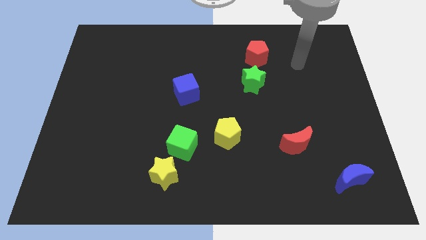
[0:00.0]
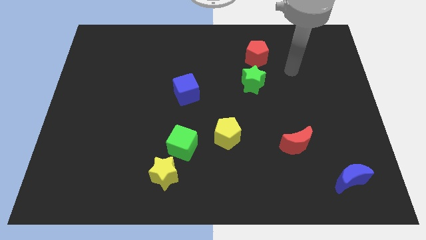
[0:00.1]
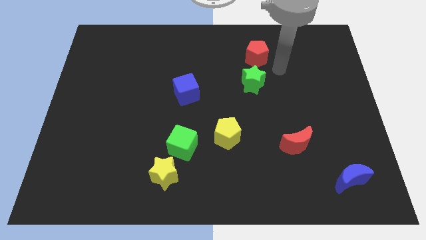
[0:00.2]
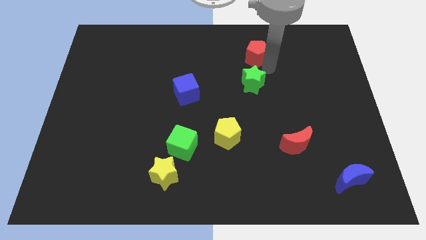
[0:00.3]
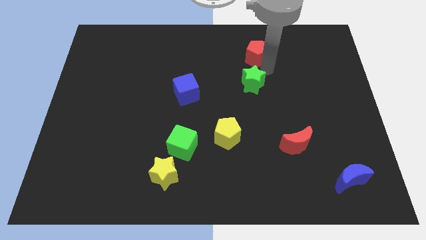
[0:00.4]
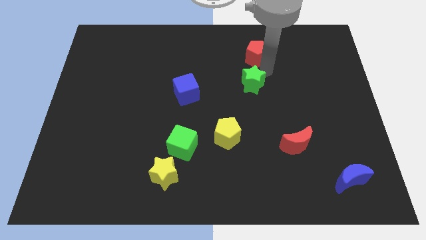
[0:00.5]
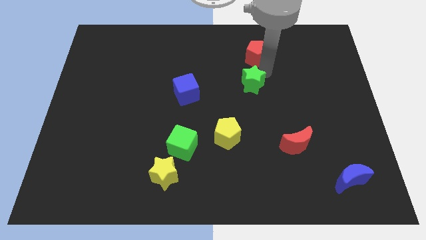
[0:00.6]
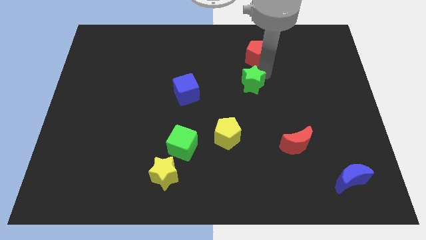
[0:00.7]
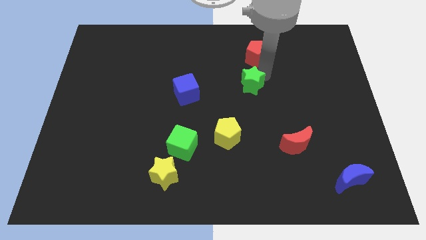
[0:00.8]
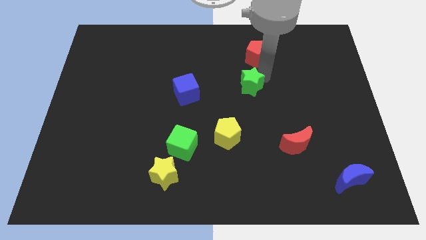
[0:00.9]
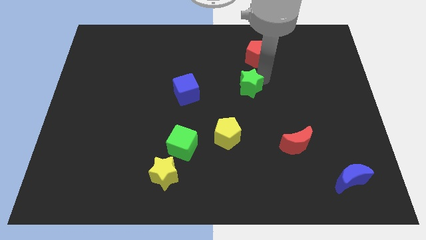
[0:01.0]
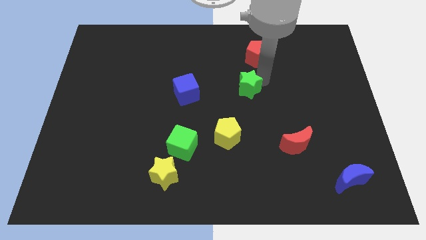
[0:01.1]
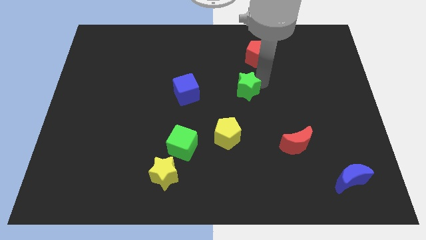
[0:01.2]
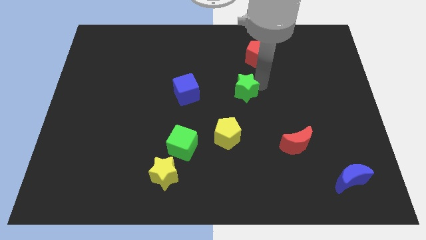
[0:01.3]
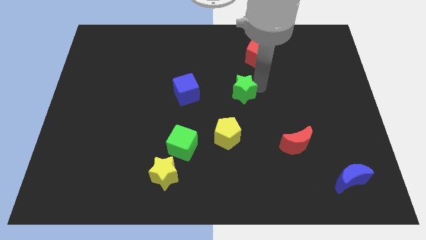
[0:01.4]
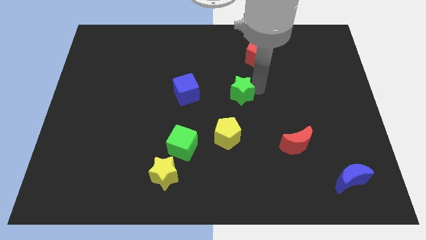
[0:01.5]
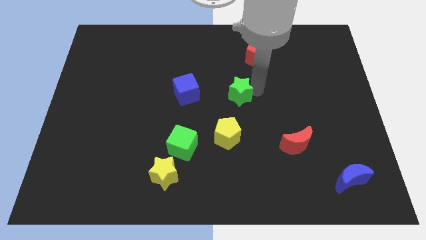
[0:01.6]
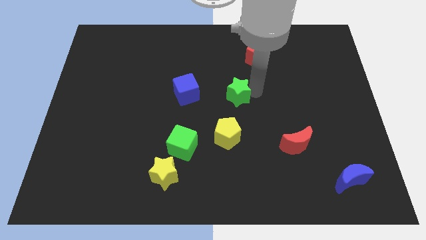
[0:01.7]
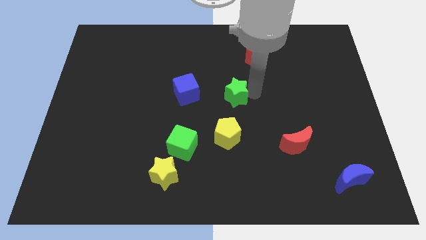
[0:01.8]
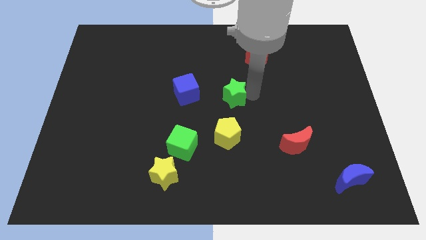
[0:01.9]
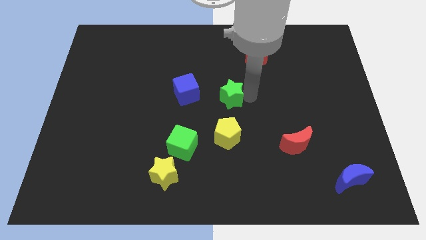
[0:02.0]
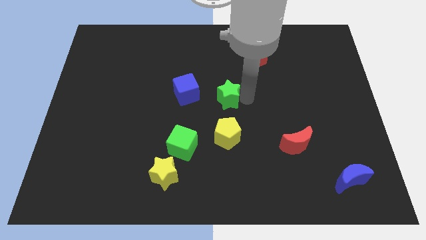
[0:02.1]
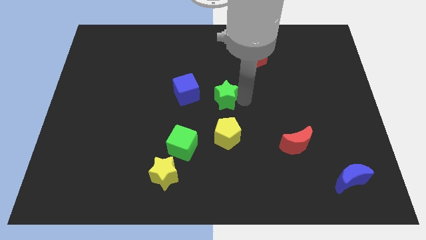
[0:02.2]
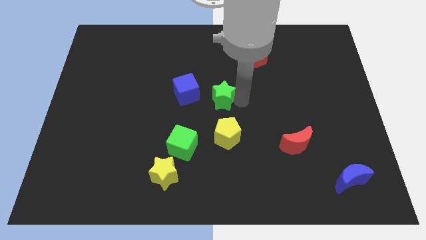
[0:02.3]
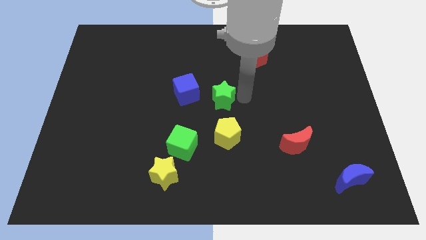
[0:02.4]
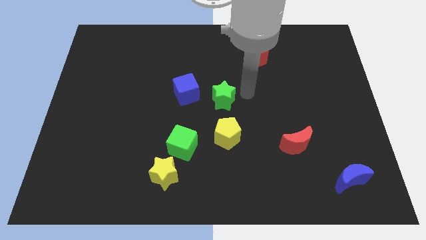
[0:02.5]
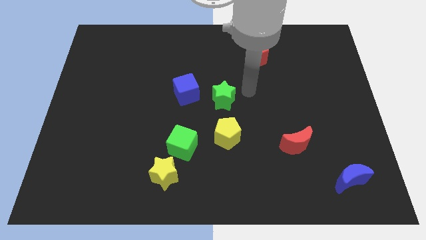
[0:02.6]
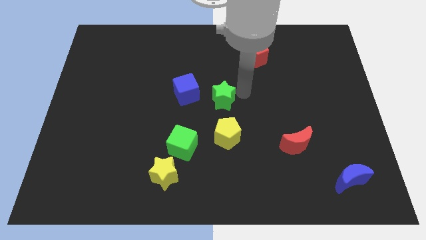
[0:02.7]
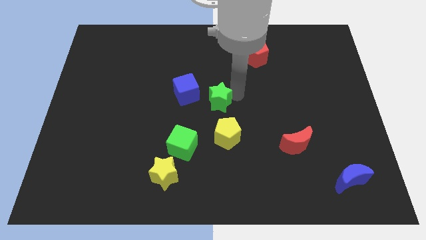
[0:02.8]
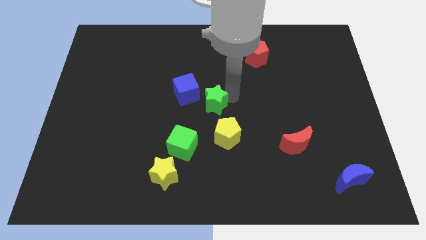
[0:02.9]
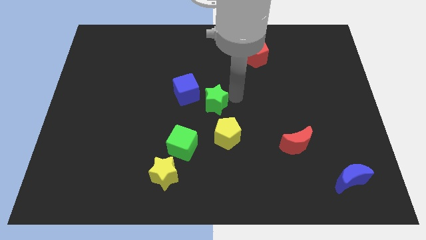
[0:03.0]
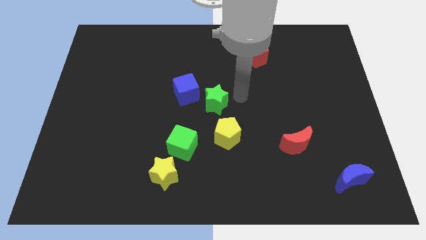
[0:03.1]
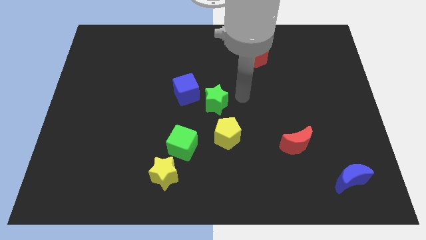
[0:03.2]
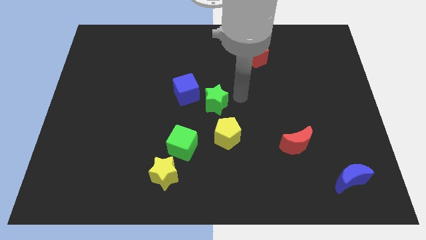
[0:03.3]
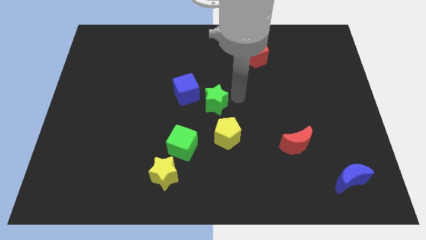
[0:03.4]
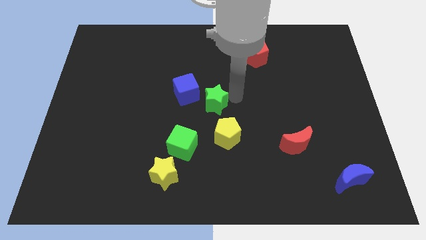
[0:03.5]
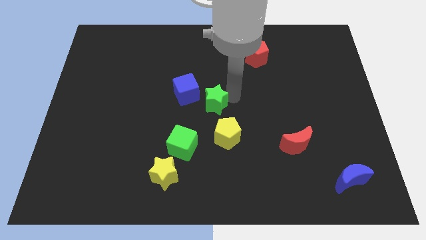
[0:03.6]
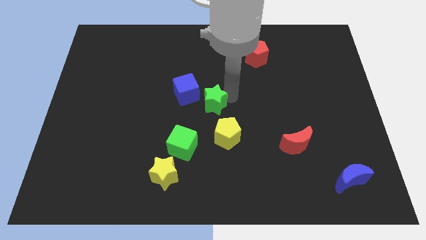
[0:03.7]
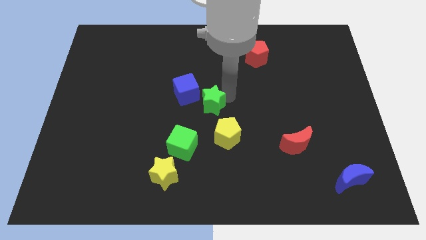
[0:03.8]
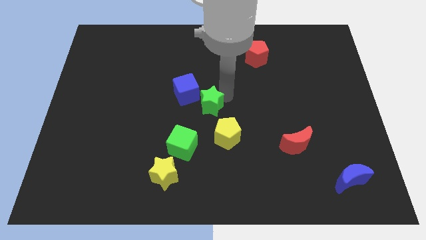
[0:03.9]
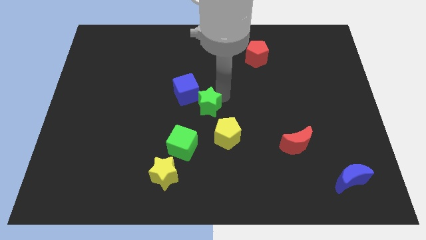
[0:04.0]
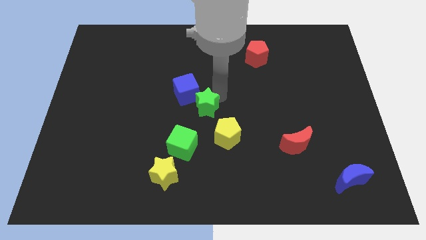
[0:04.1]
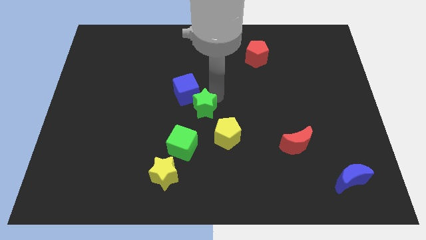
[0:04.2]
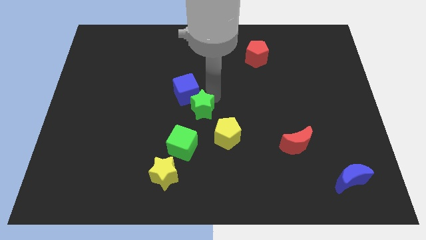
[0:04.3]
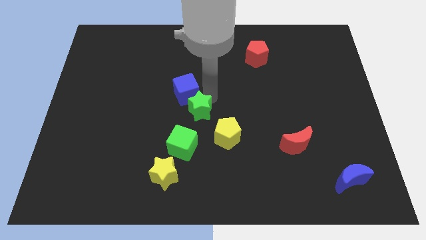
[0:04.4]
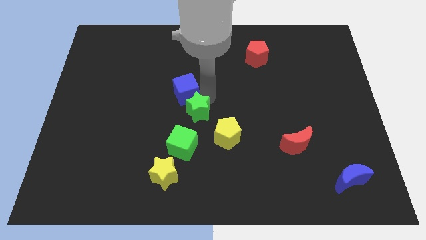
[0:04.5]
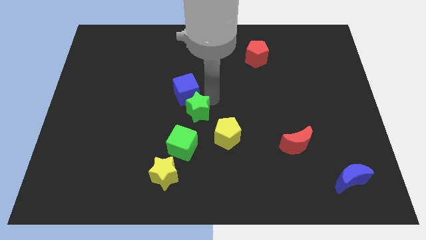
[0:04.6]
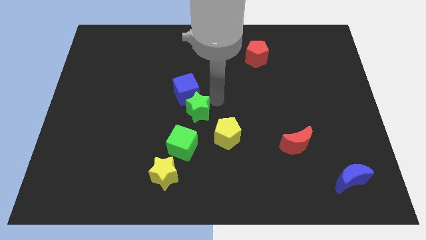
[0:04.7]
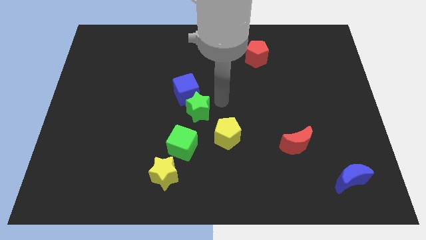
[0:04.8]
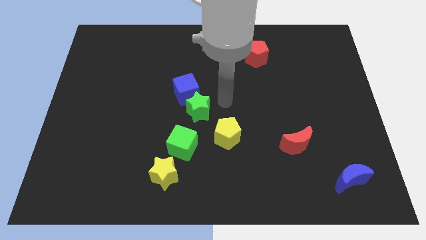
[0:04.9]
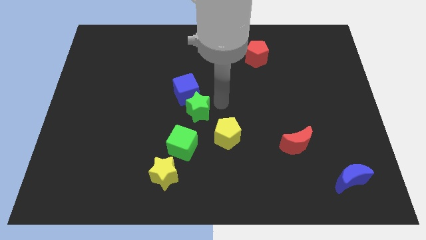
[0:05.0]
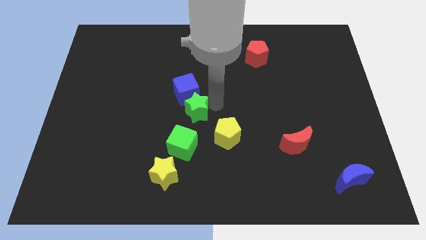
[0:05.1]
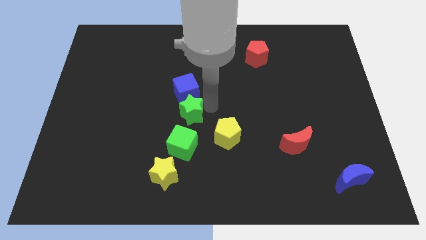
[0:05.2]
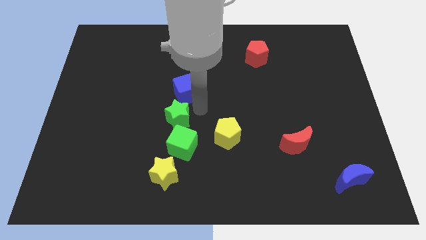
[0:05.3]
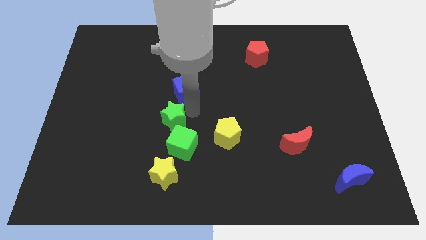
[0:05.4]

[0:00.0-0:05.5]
move the green star diagonally downwards and left

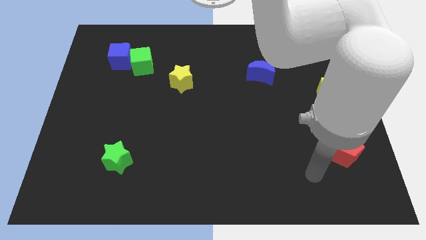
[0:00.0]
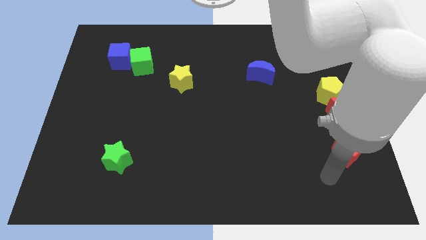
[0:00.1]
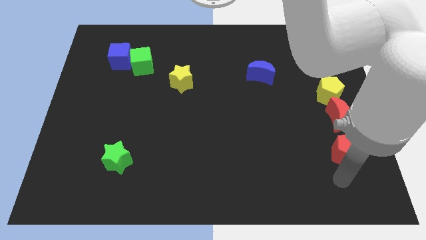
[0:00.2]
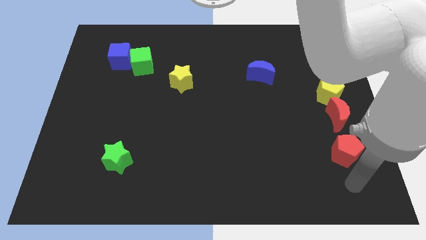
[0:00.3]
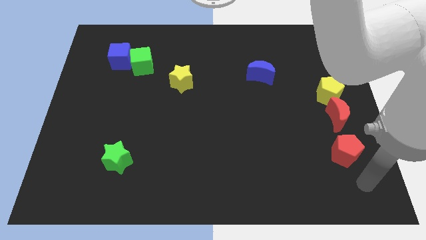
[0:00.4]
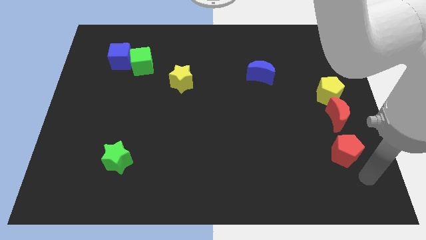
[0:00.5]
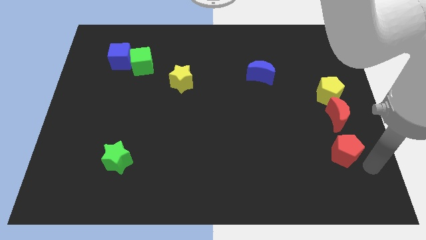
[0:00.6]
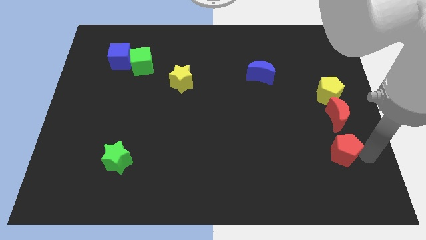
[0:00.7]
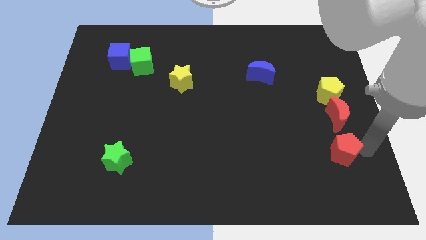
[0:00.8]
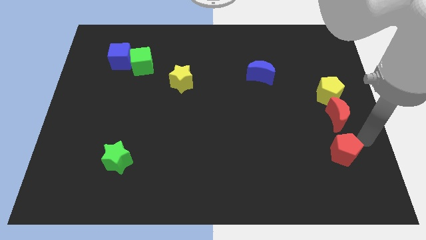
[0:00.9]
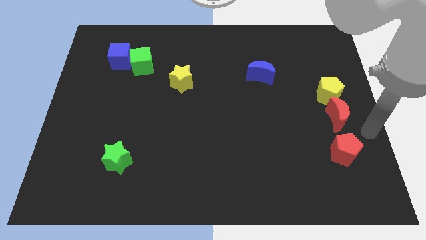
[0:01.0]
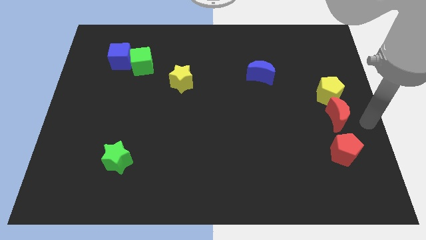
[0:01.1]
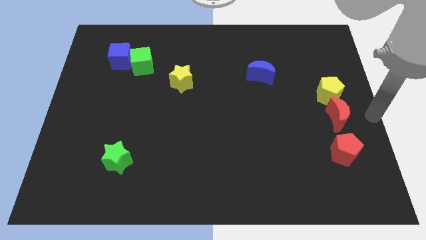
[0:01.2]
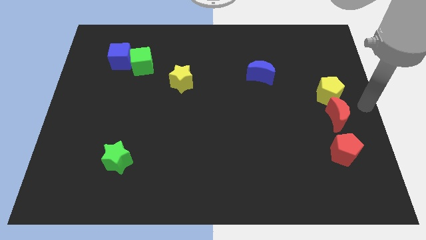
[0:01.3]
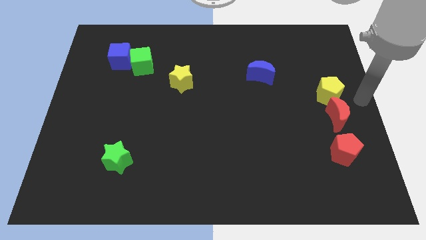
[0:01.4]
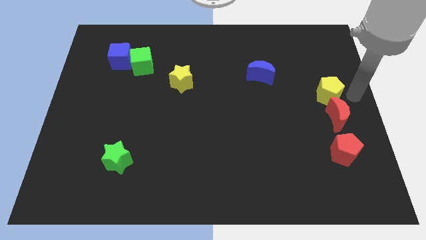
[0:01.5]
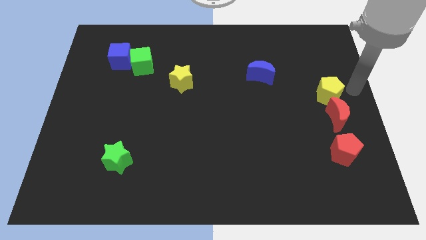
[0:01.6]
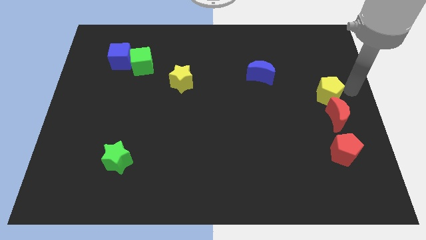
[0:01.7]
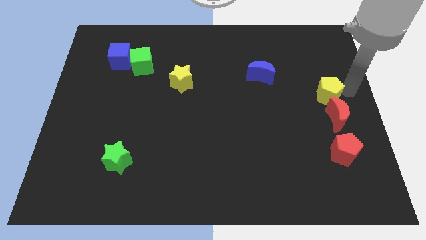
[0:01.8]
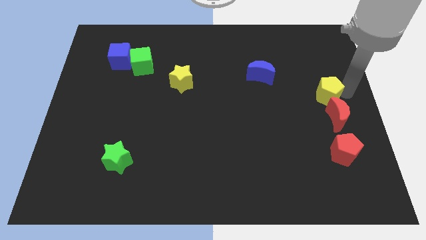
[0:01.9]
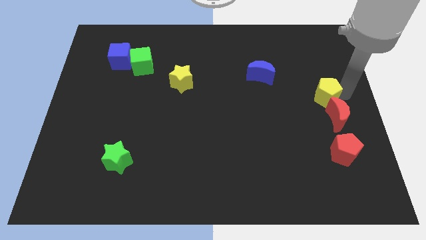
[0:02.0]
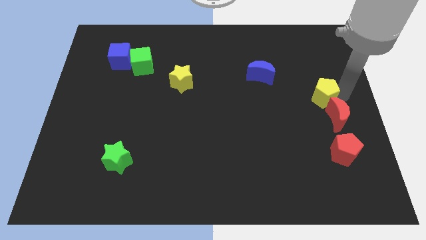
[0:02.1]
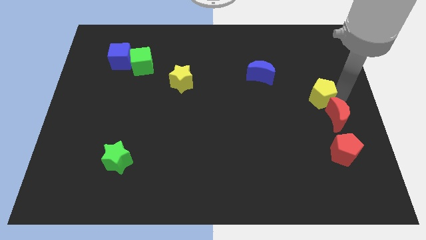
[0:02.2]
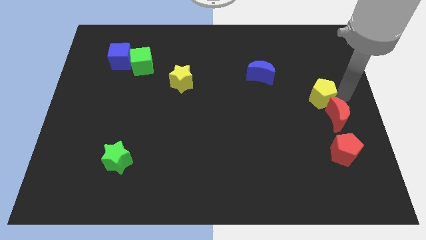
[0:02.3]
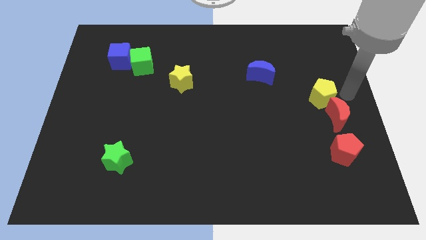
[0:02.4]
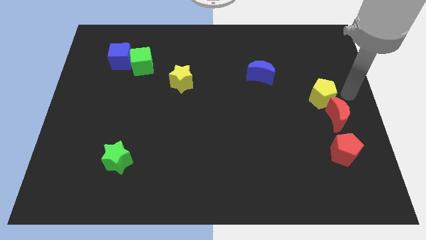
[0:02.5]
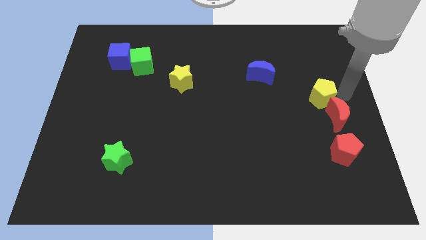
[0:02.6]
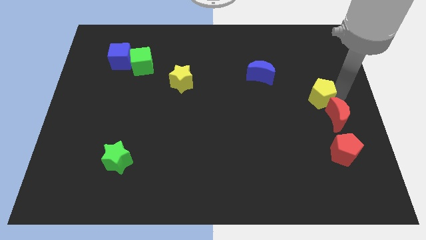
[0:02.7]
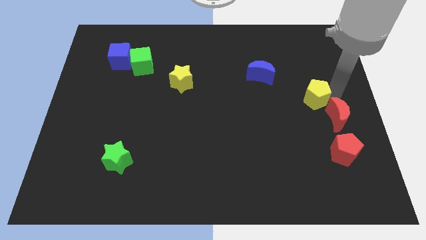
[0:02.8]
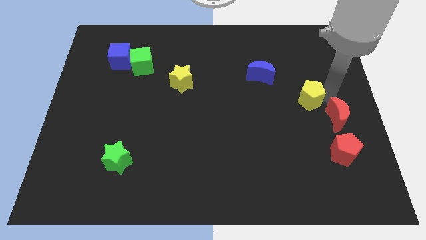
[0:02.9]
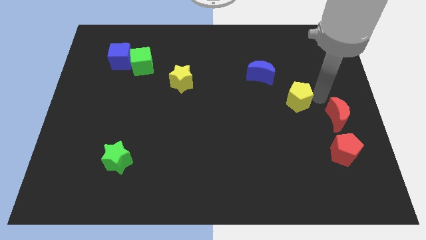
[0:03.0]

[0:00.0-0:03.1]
slightly slide the yellow pentagon to the left

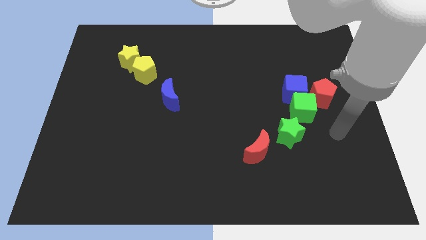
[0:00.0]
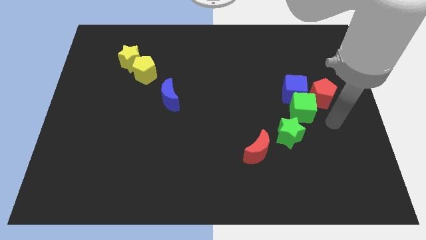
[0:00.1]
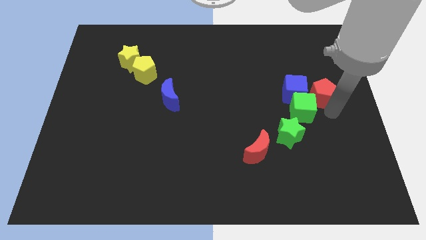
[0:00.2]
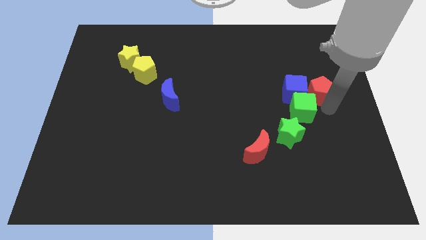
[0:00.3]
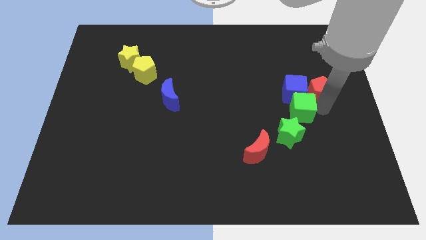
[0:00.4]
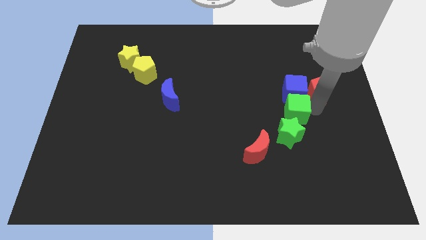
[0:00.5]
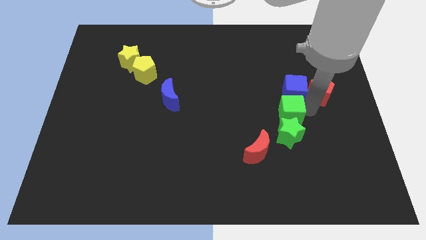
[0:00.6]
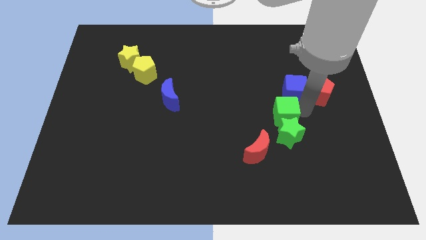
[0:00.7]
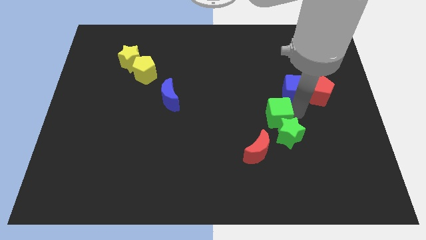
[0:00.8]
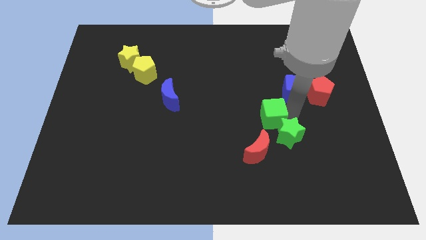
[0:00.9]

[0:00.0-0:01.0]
move the green cube a little left
